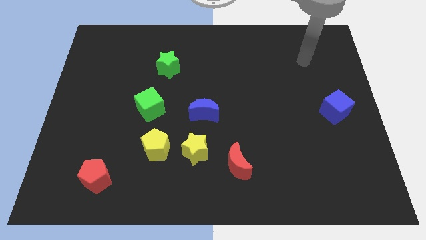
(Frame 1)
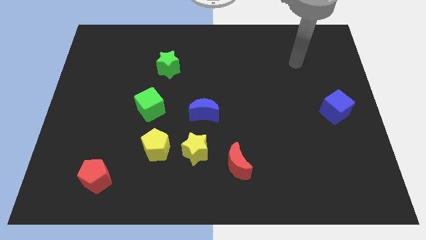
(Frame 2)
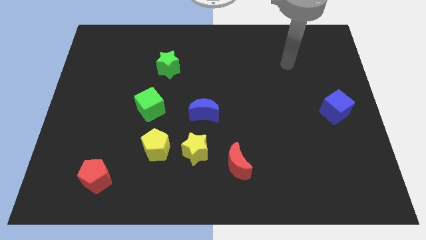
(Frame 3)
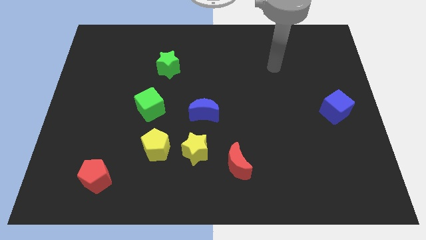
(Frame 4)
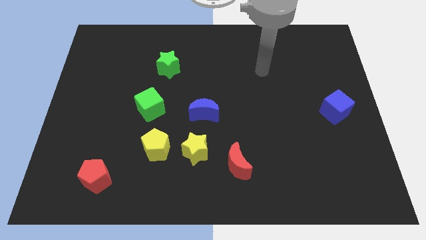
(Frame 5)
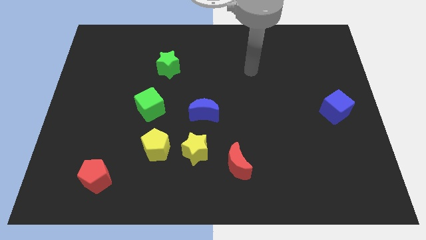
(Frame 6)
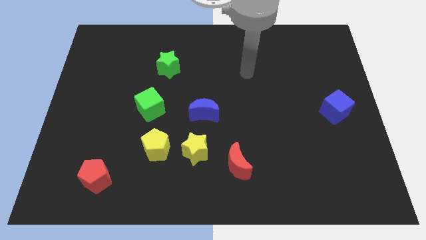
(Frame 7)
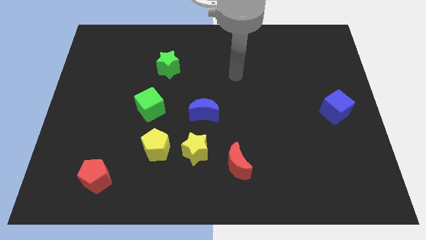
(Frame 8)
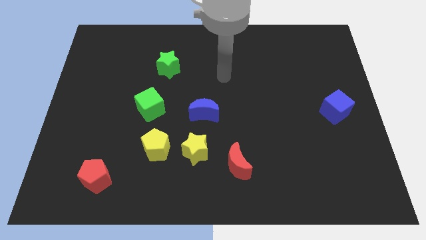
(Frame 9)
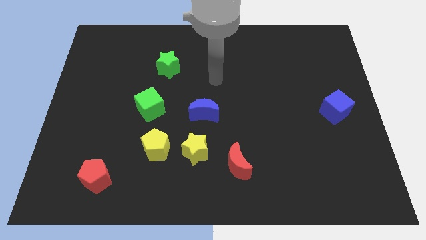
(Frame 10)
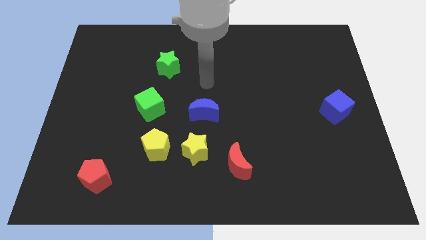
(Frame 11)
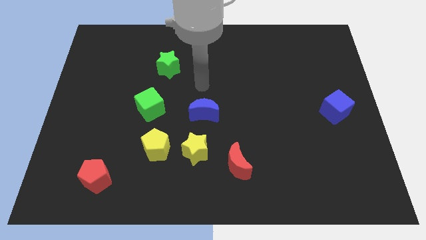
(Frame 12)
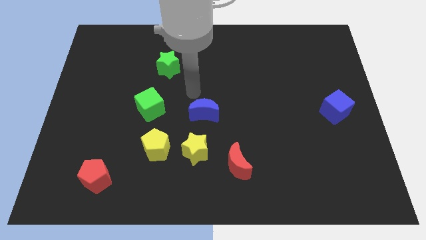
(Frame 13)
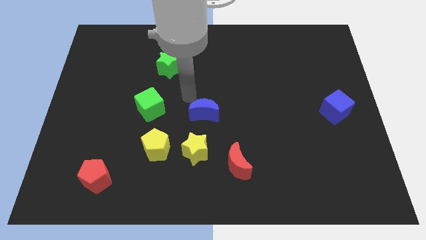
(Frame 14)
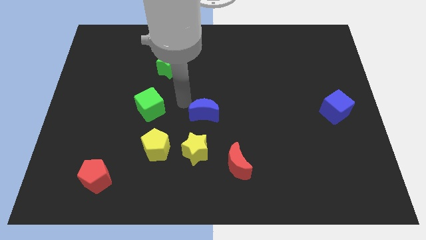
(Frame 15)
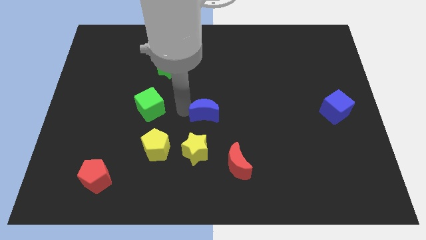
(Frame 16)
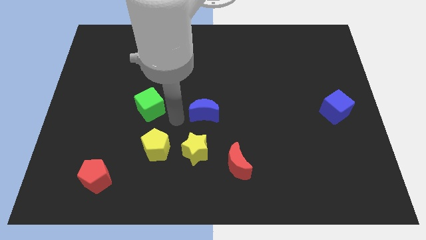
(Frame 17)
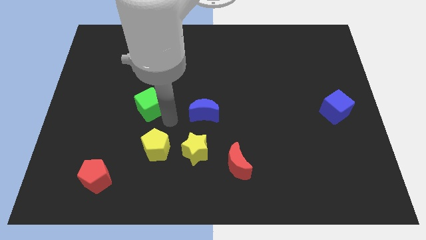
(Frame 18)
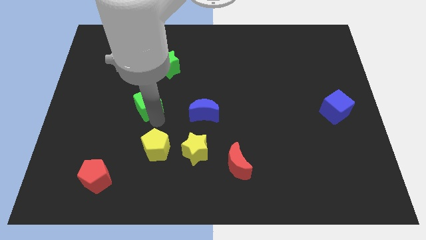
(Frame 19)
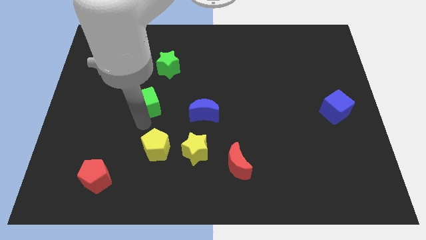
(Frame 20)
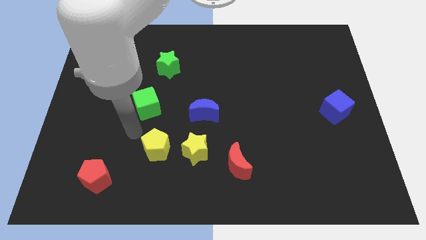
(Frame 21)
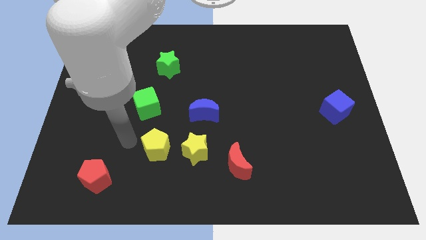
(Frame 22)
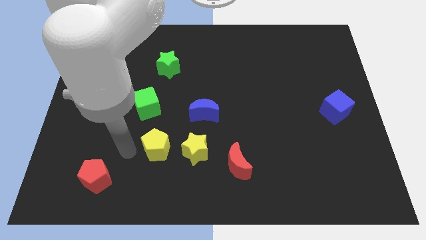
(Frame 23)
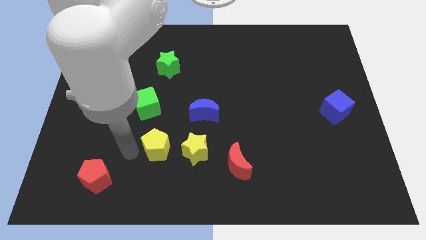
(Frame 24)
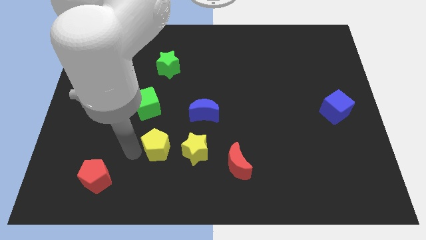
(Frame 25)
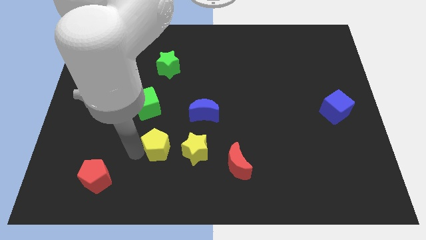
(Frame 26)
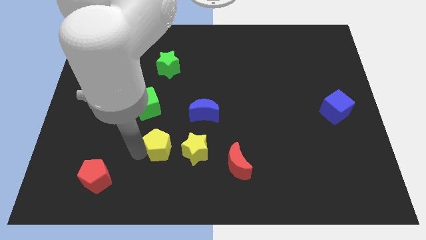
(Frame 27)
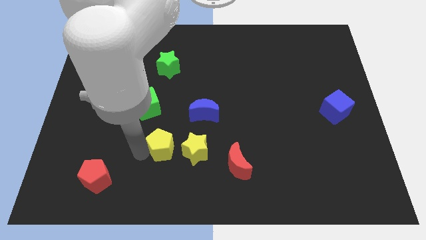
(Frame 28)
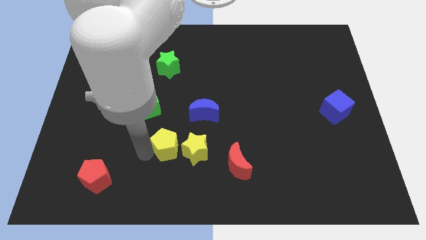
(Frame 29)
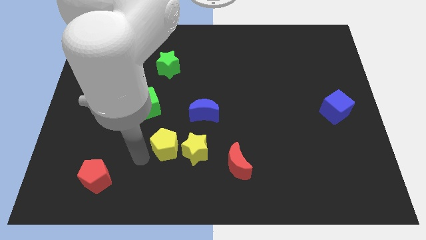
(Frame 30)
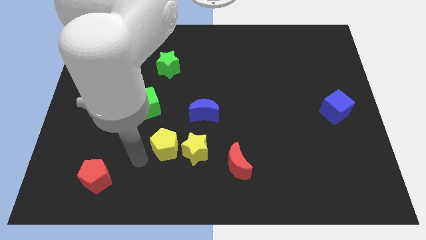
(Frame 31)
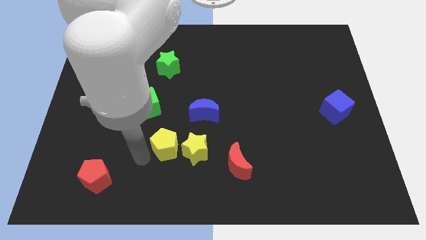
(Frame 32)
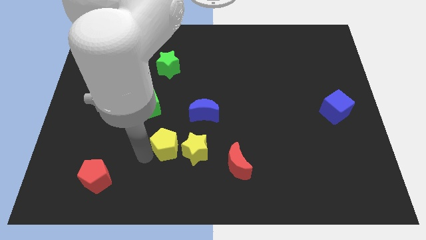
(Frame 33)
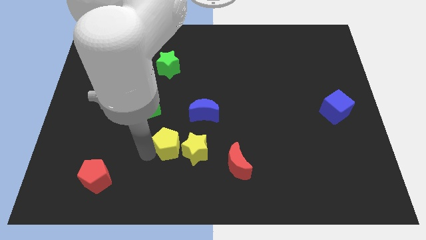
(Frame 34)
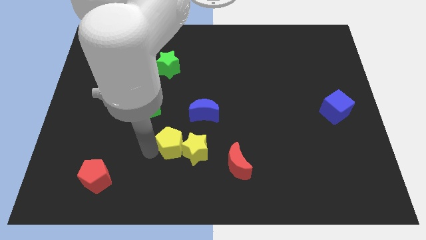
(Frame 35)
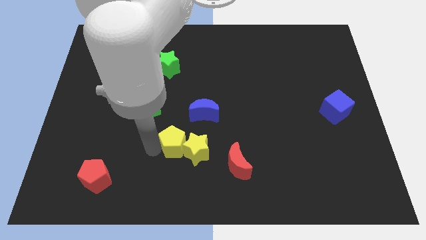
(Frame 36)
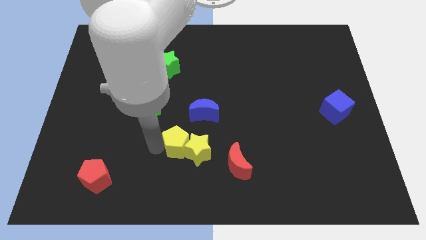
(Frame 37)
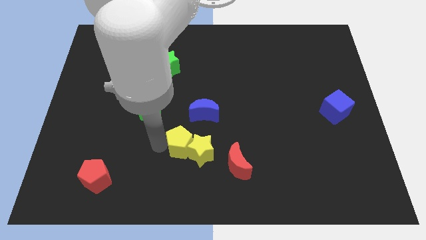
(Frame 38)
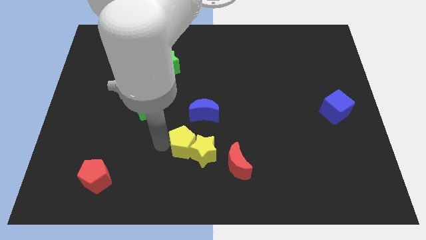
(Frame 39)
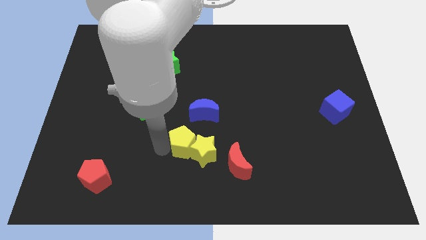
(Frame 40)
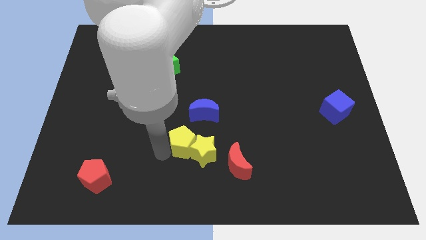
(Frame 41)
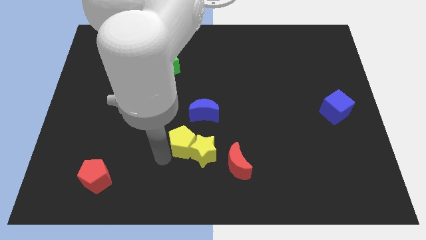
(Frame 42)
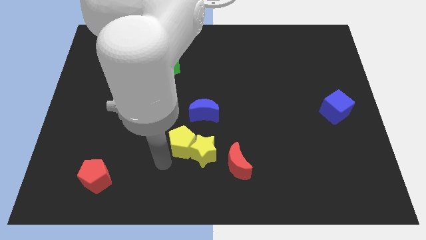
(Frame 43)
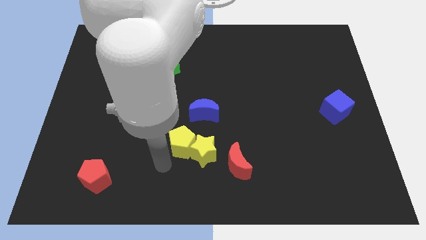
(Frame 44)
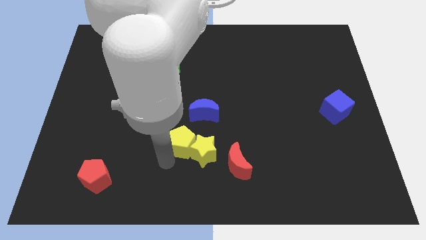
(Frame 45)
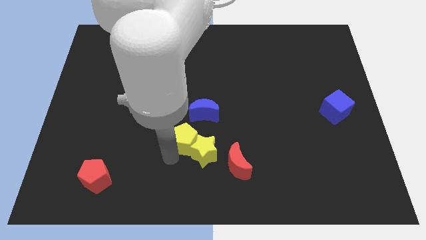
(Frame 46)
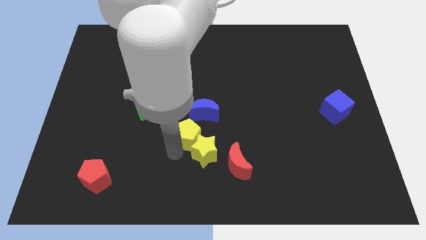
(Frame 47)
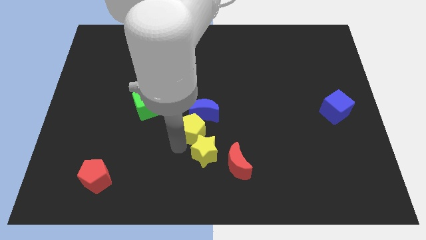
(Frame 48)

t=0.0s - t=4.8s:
push the yellow pentagon to the right a little bit

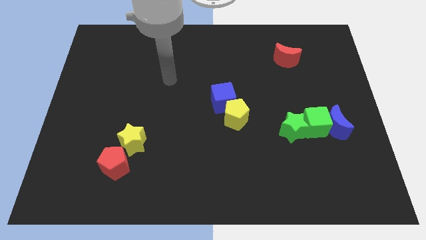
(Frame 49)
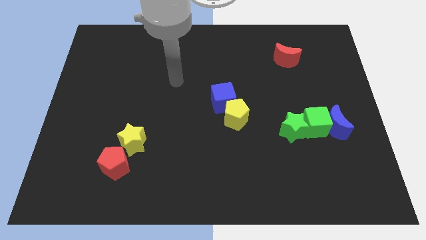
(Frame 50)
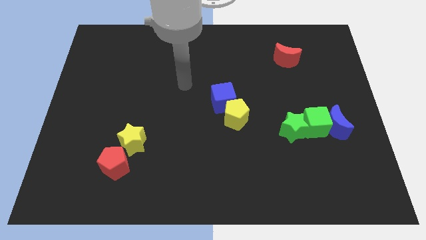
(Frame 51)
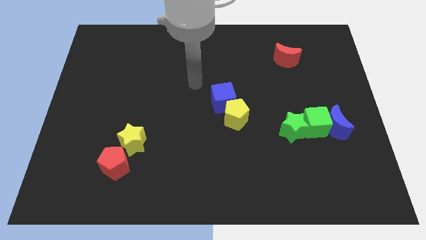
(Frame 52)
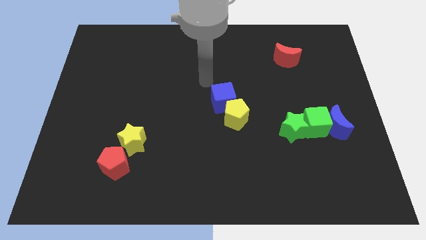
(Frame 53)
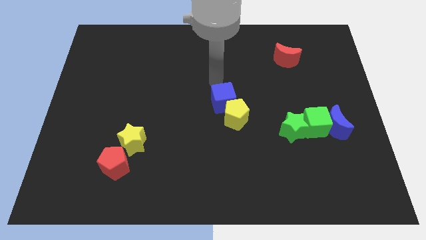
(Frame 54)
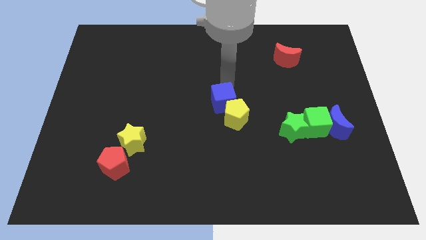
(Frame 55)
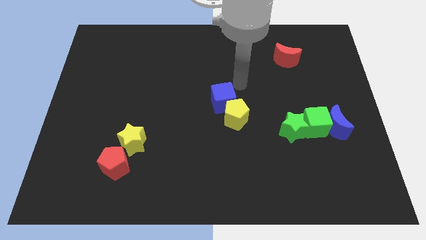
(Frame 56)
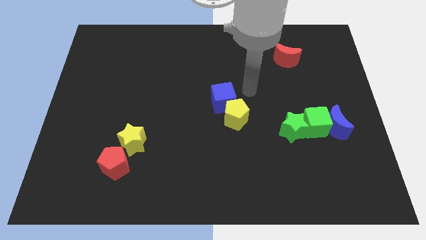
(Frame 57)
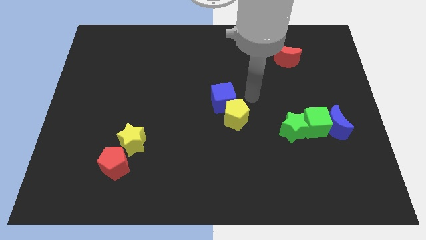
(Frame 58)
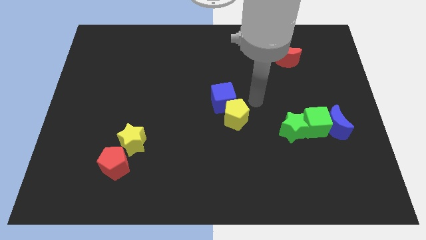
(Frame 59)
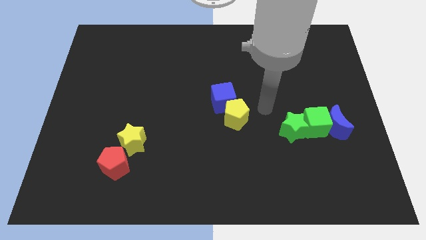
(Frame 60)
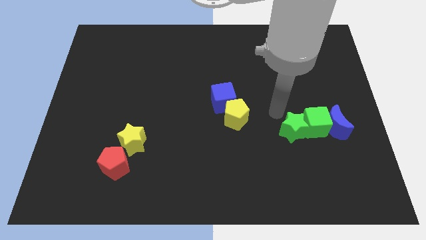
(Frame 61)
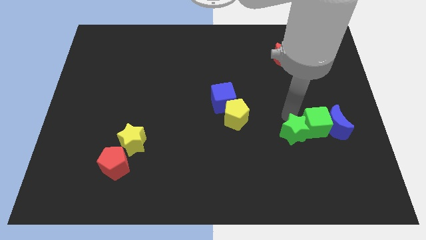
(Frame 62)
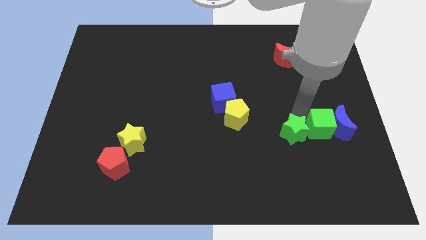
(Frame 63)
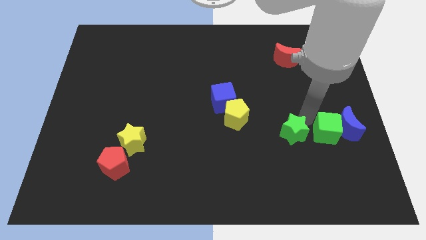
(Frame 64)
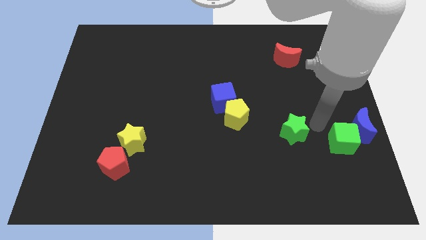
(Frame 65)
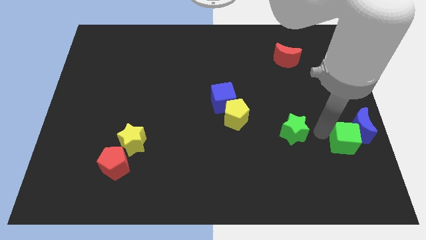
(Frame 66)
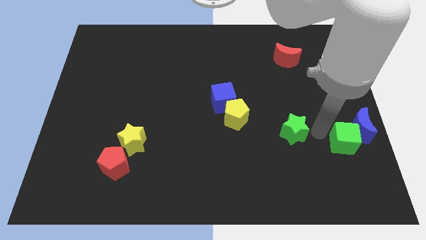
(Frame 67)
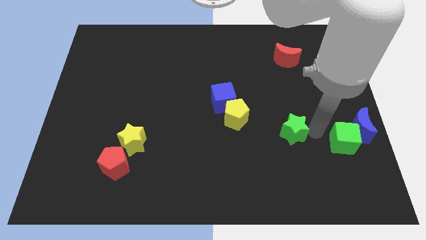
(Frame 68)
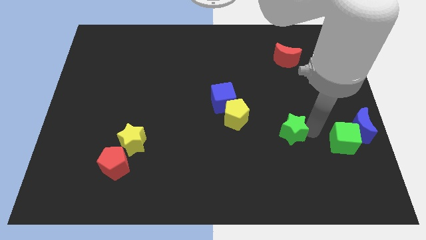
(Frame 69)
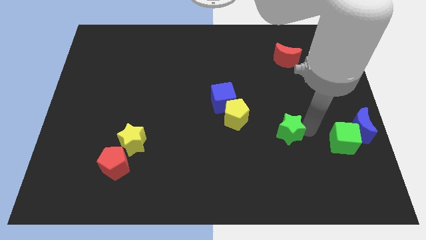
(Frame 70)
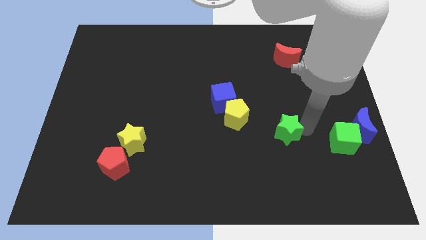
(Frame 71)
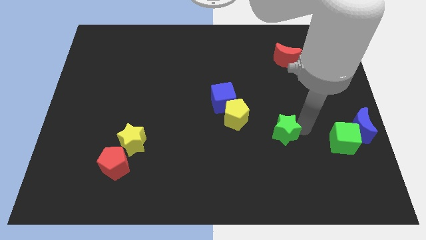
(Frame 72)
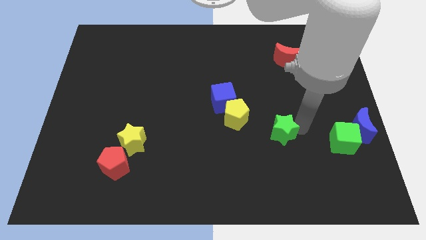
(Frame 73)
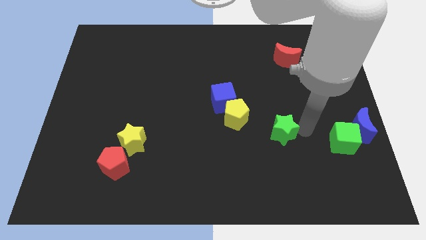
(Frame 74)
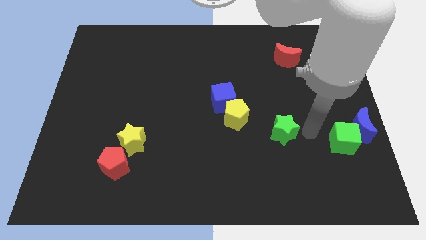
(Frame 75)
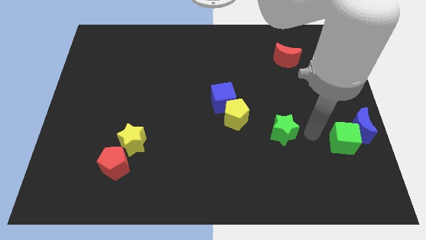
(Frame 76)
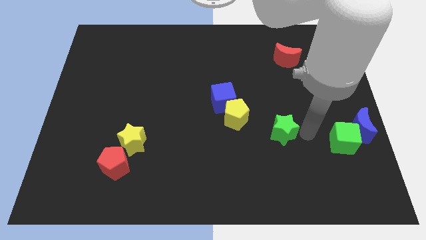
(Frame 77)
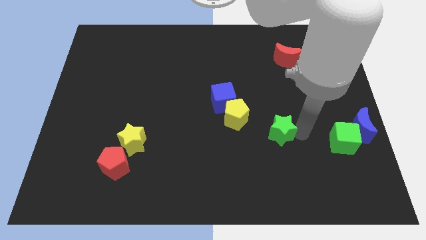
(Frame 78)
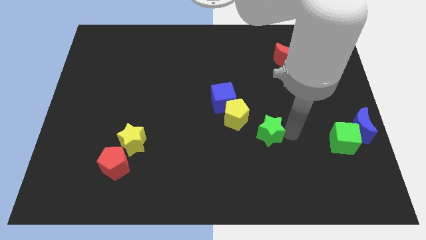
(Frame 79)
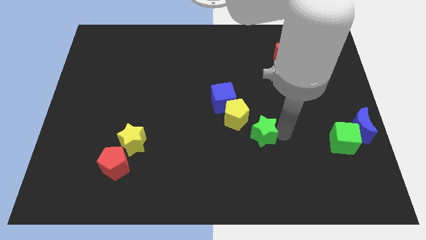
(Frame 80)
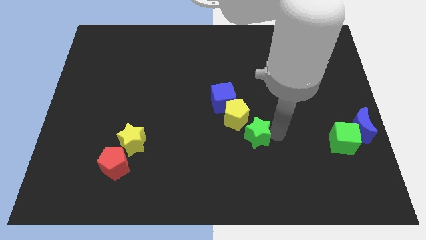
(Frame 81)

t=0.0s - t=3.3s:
move the green star to the left slightly
